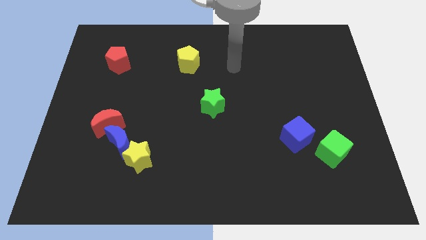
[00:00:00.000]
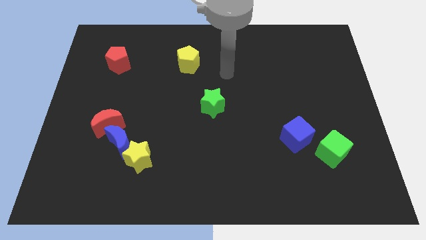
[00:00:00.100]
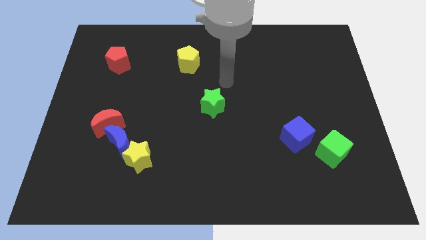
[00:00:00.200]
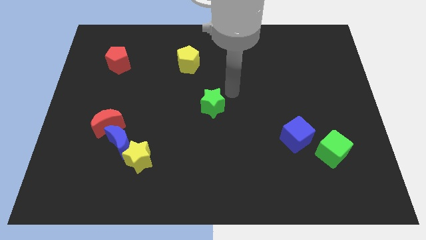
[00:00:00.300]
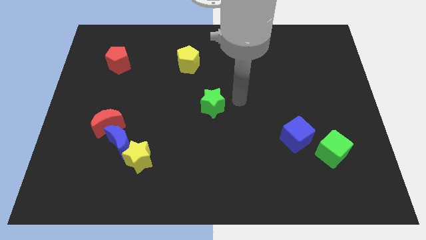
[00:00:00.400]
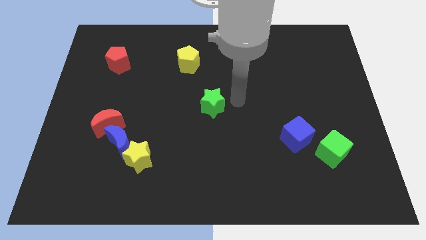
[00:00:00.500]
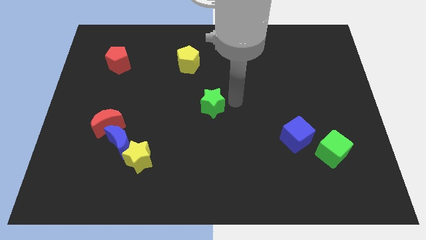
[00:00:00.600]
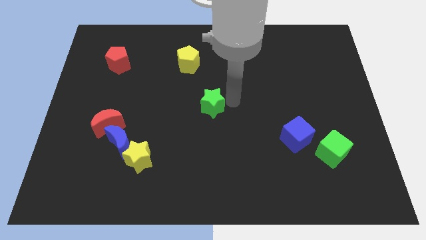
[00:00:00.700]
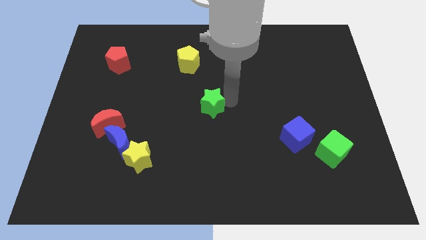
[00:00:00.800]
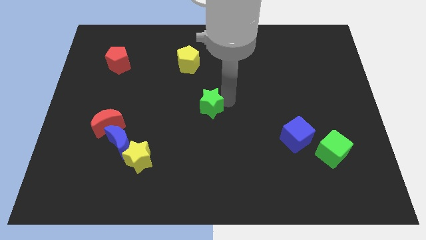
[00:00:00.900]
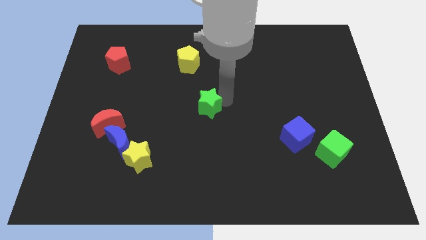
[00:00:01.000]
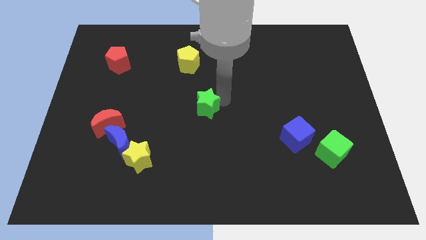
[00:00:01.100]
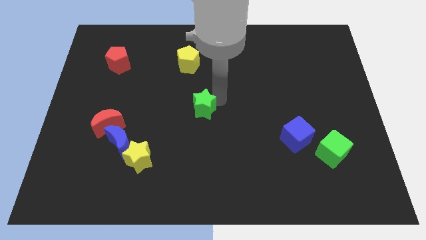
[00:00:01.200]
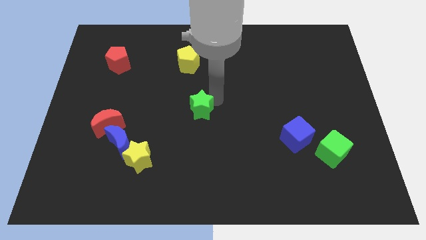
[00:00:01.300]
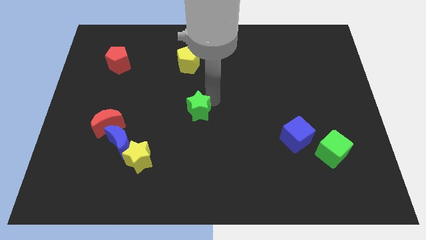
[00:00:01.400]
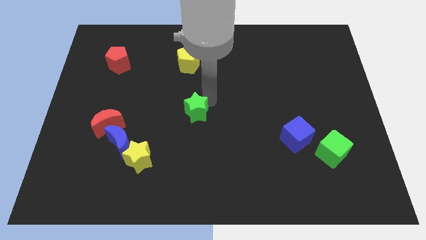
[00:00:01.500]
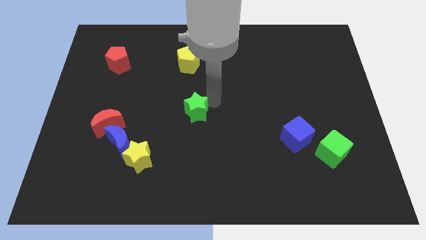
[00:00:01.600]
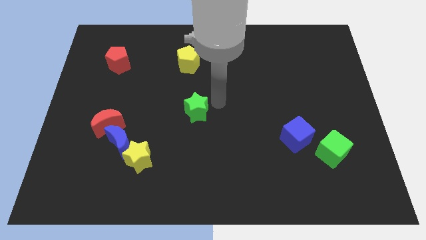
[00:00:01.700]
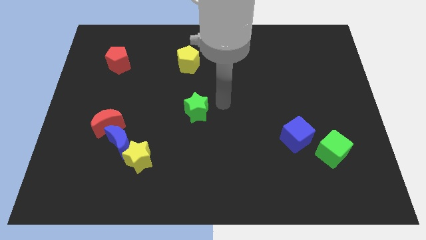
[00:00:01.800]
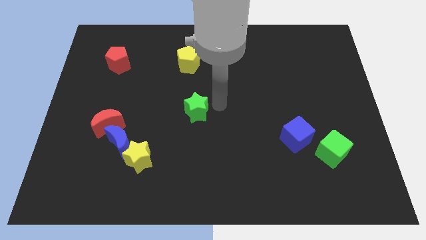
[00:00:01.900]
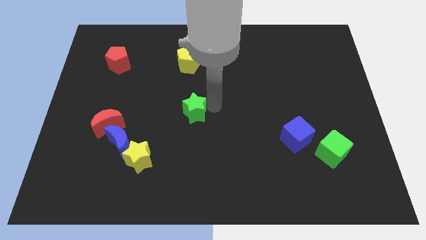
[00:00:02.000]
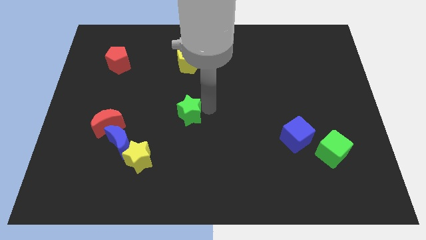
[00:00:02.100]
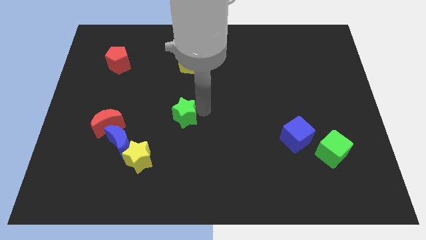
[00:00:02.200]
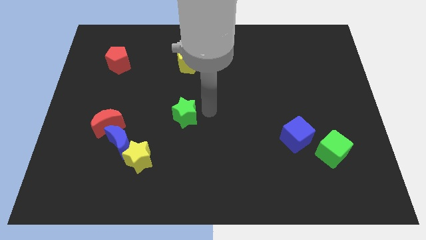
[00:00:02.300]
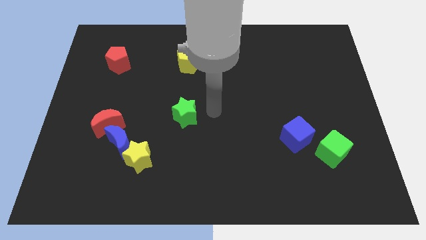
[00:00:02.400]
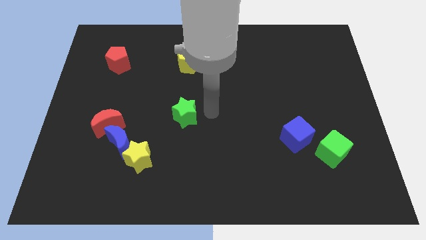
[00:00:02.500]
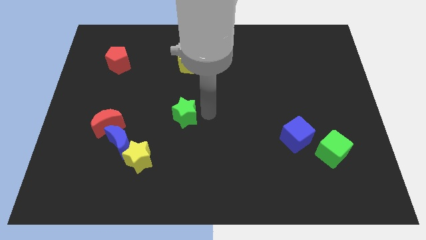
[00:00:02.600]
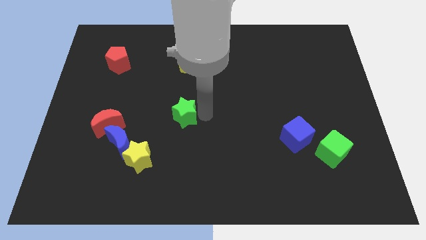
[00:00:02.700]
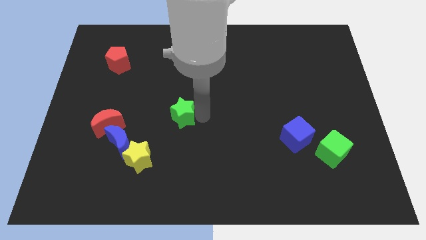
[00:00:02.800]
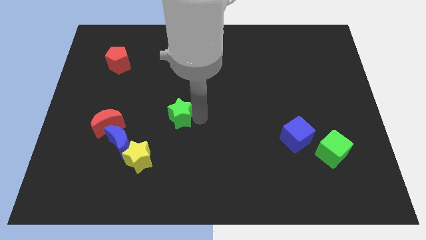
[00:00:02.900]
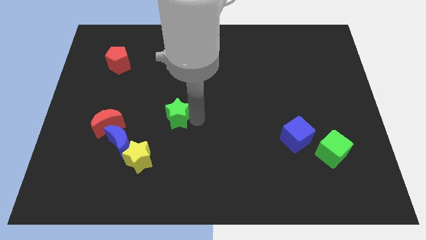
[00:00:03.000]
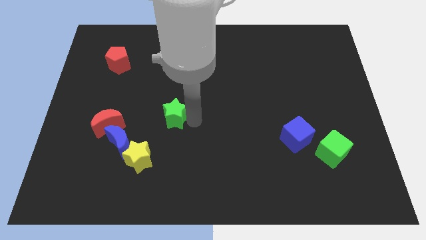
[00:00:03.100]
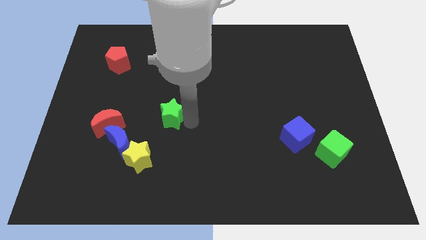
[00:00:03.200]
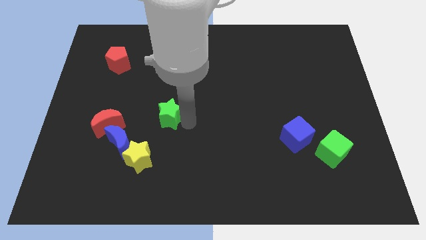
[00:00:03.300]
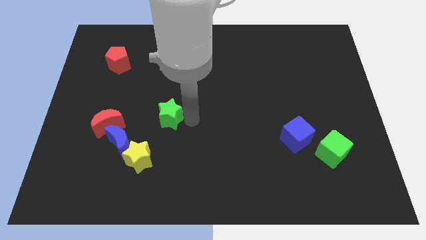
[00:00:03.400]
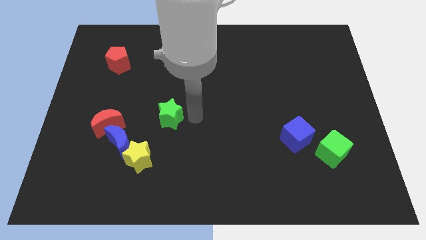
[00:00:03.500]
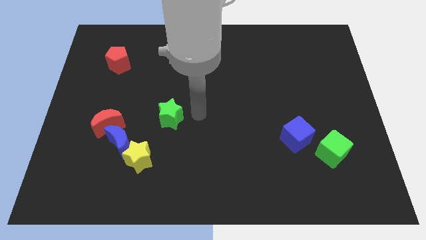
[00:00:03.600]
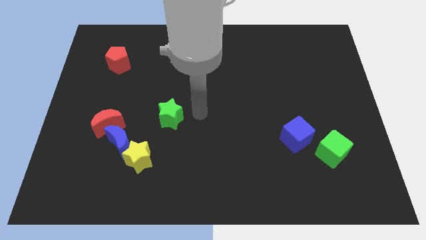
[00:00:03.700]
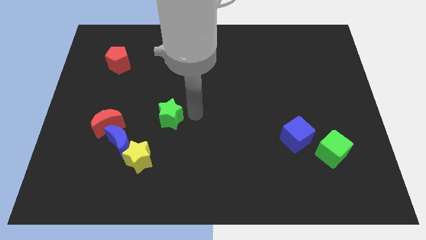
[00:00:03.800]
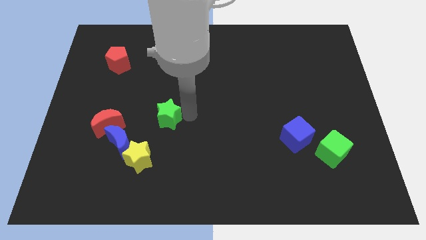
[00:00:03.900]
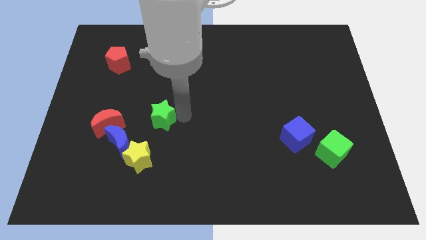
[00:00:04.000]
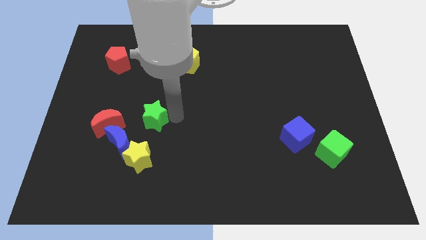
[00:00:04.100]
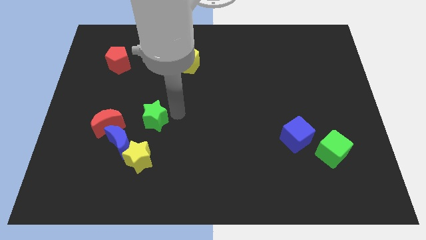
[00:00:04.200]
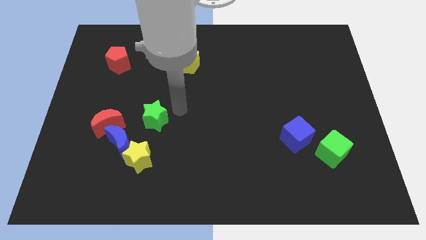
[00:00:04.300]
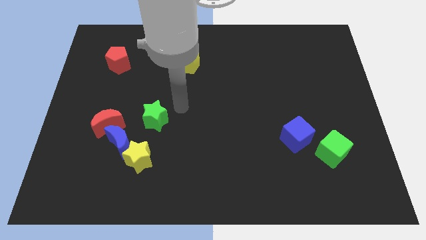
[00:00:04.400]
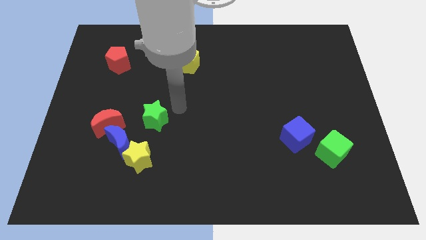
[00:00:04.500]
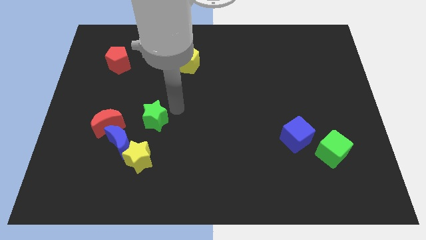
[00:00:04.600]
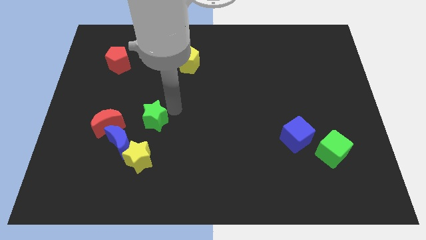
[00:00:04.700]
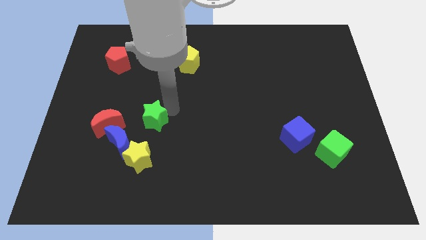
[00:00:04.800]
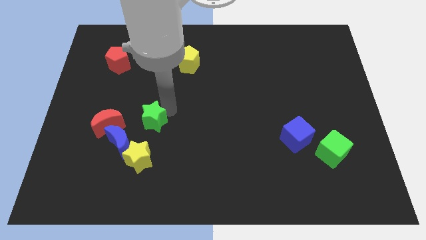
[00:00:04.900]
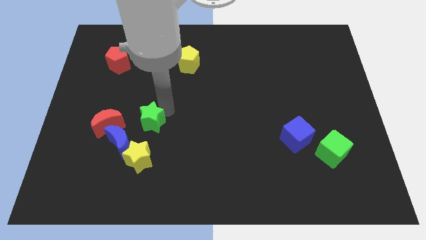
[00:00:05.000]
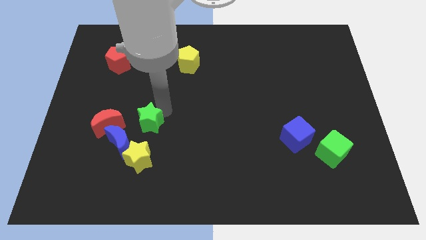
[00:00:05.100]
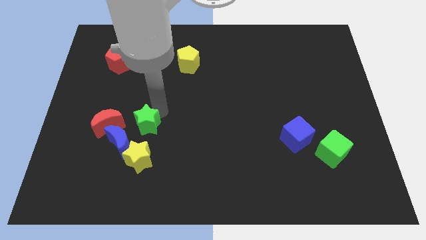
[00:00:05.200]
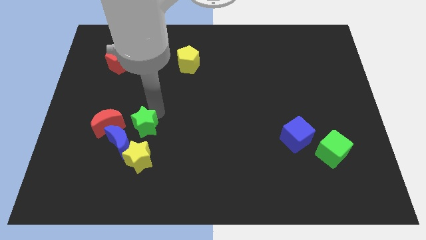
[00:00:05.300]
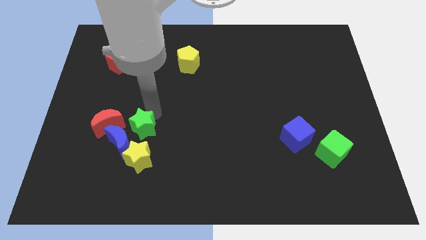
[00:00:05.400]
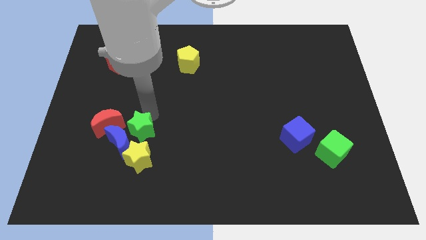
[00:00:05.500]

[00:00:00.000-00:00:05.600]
slide the green star close to the blue moon

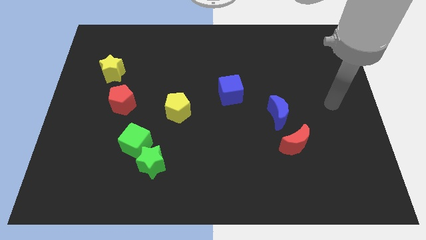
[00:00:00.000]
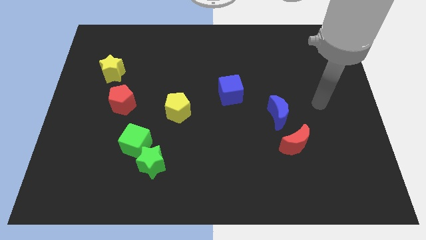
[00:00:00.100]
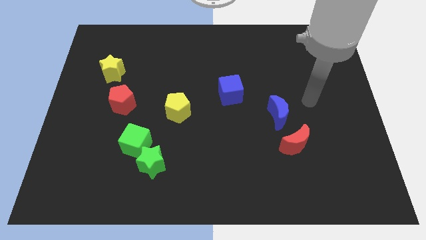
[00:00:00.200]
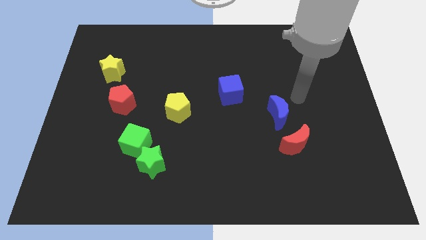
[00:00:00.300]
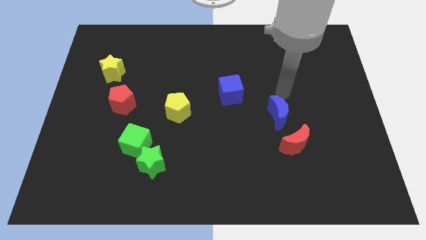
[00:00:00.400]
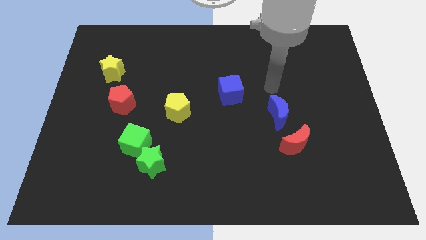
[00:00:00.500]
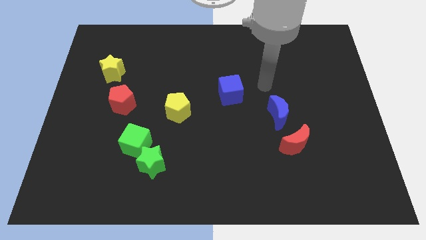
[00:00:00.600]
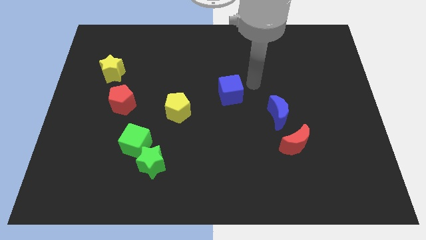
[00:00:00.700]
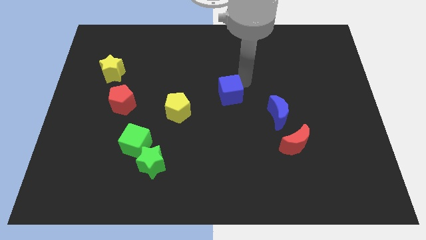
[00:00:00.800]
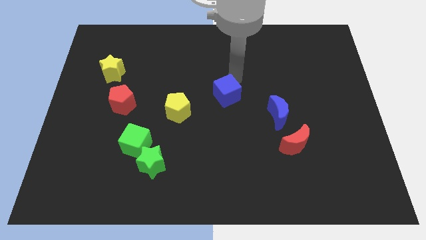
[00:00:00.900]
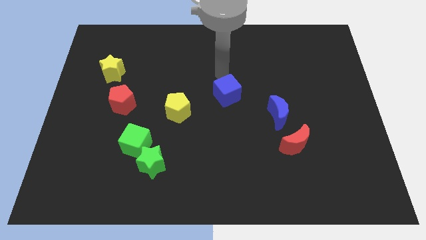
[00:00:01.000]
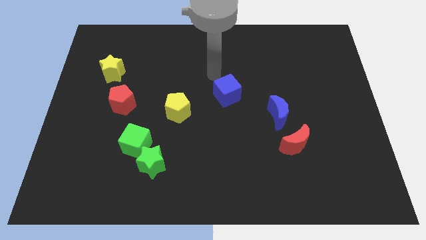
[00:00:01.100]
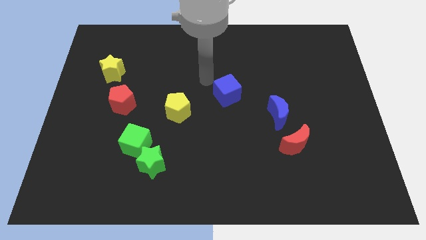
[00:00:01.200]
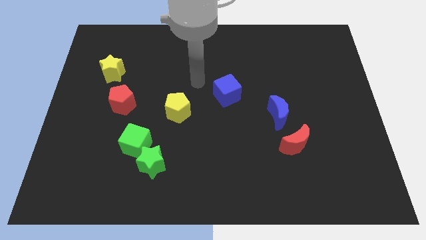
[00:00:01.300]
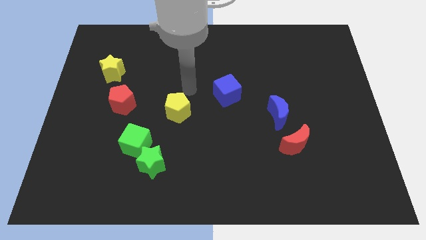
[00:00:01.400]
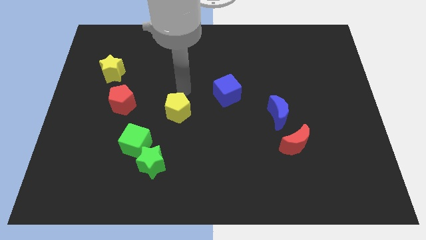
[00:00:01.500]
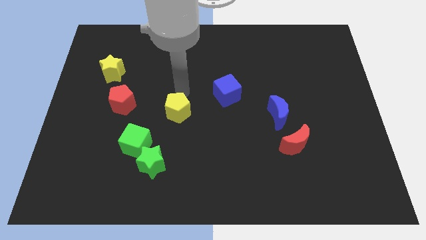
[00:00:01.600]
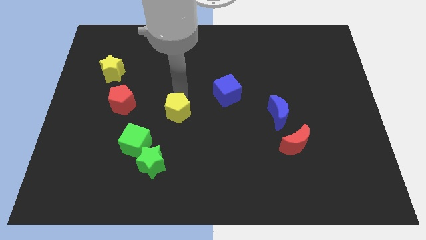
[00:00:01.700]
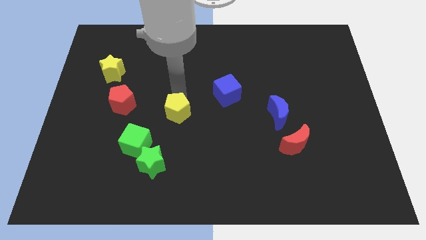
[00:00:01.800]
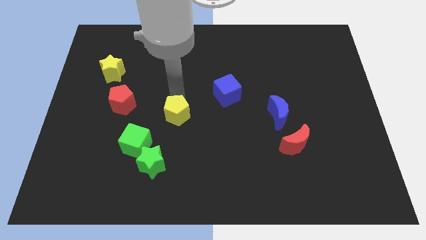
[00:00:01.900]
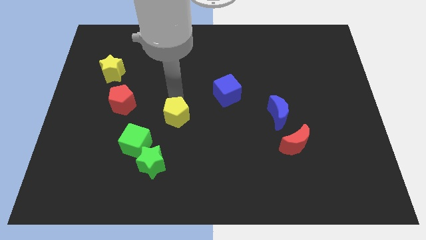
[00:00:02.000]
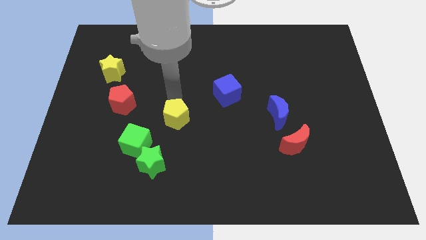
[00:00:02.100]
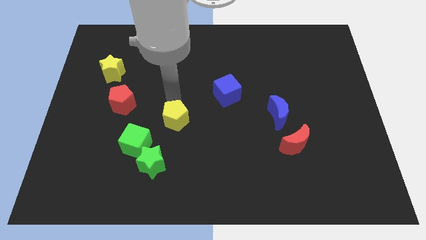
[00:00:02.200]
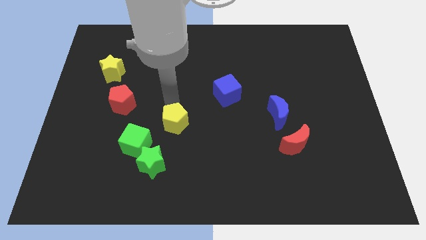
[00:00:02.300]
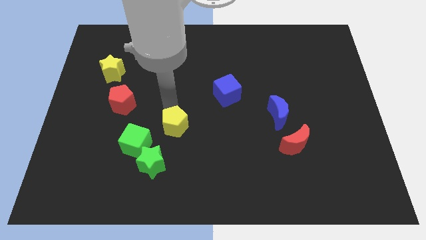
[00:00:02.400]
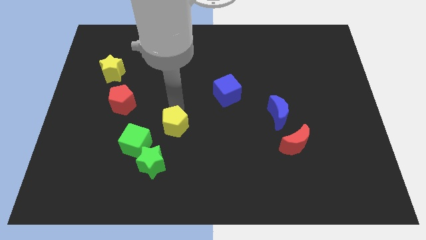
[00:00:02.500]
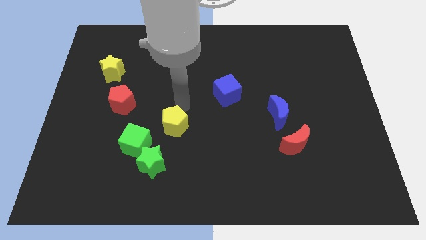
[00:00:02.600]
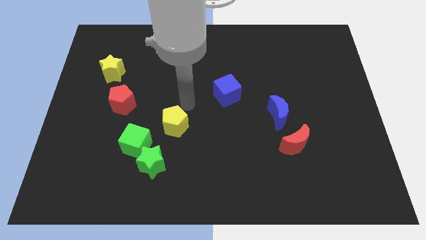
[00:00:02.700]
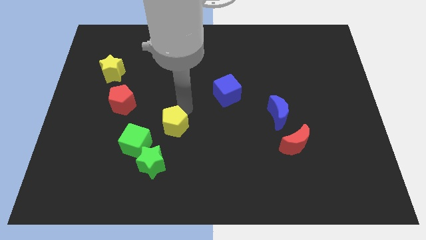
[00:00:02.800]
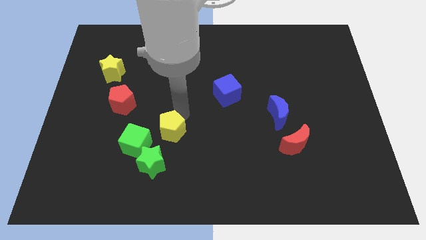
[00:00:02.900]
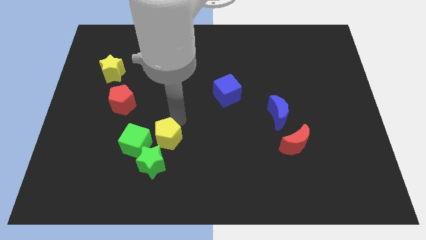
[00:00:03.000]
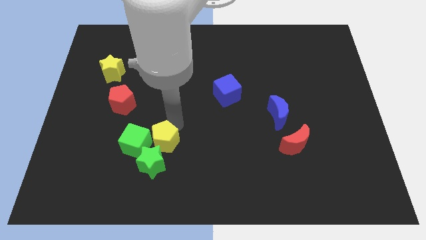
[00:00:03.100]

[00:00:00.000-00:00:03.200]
slide the yellow pentagon to the green star
